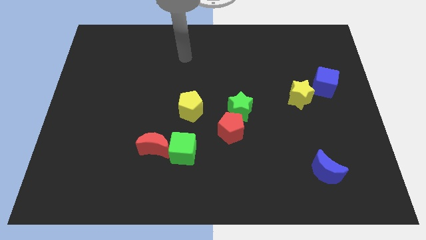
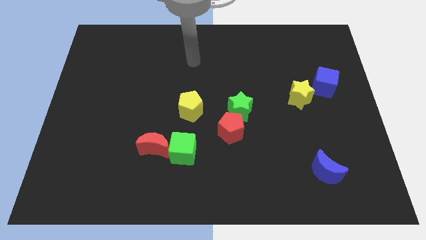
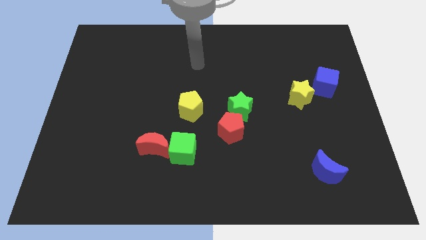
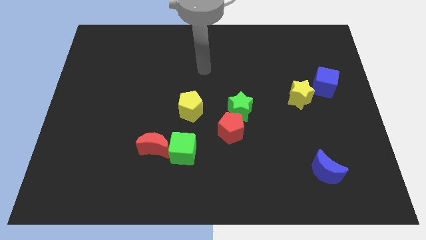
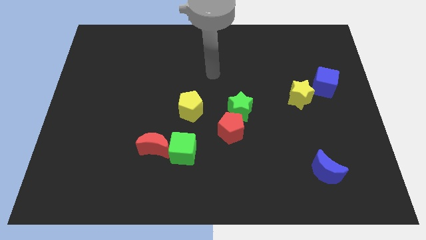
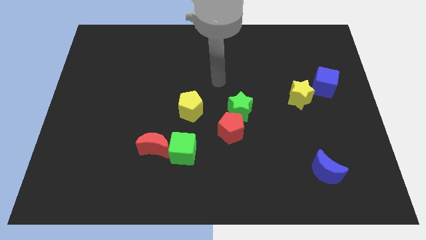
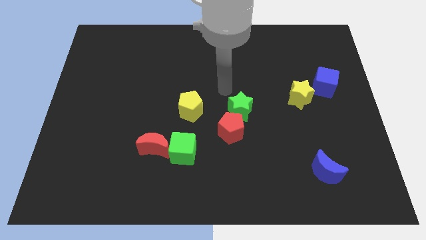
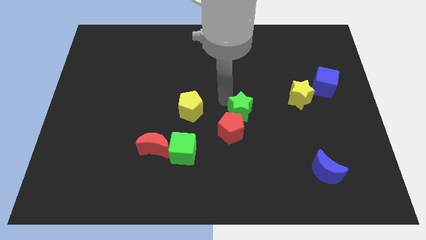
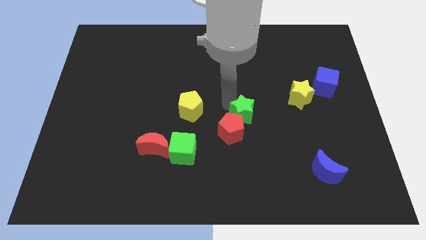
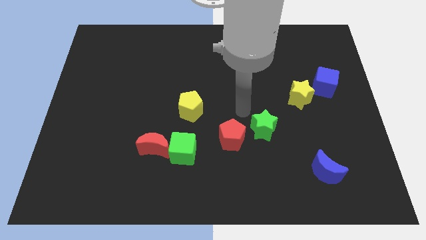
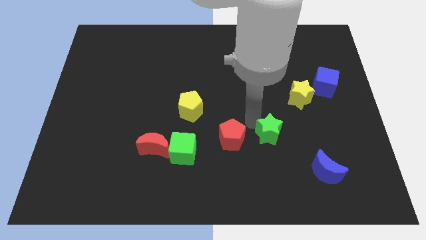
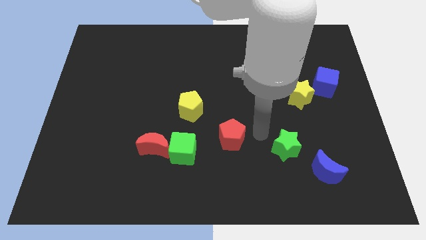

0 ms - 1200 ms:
pull the red pentagon apart from the green star

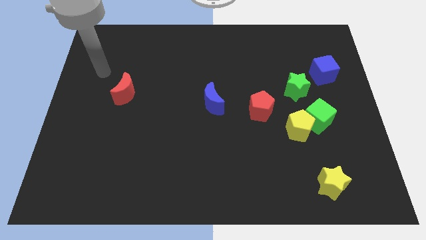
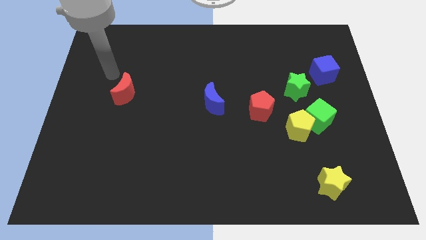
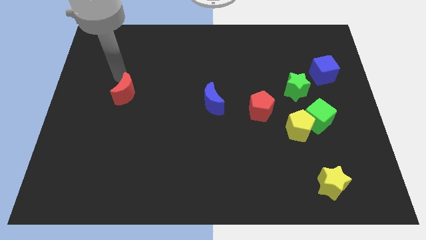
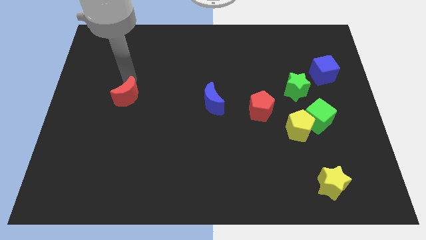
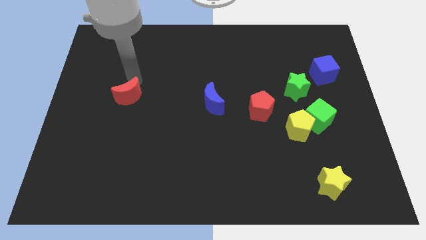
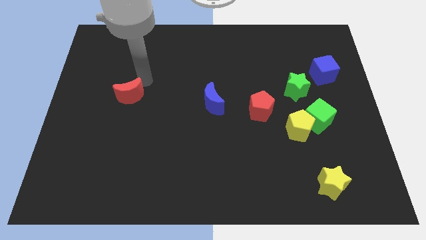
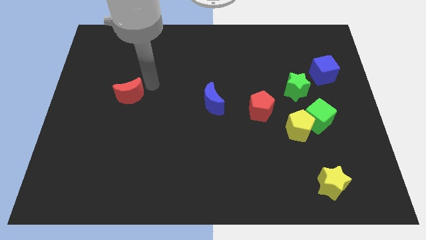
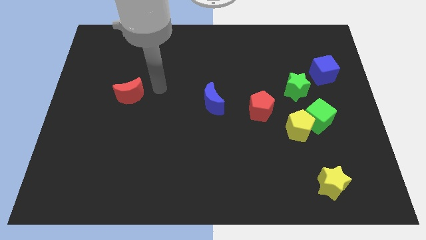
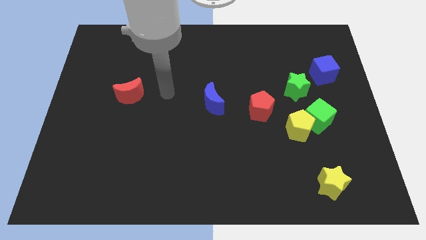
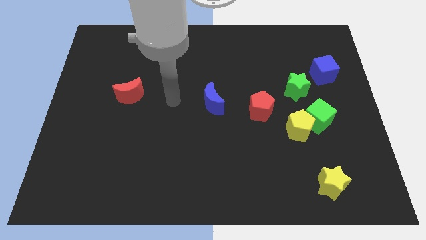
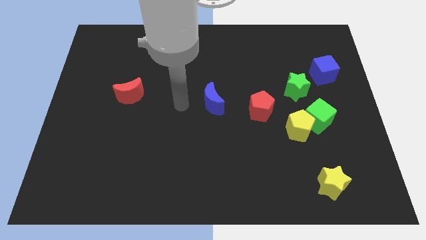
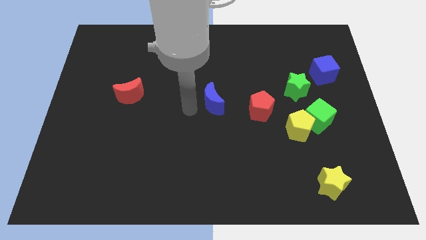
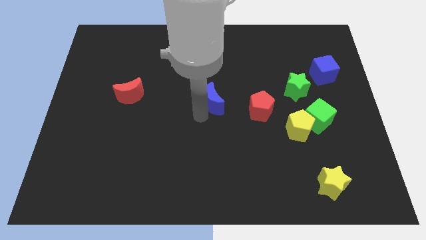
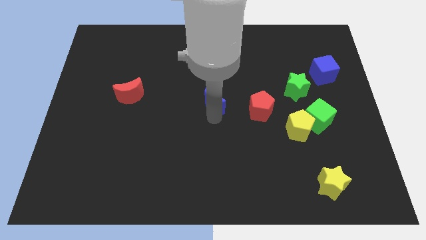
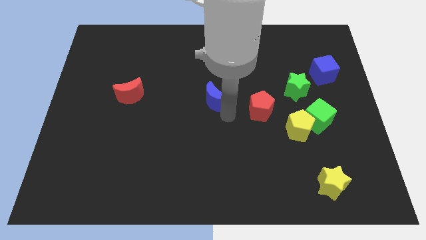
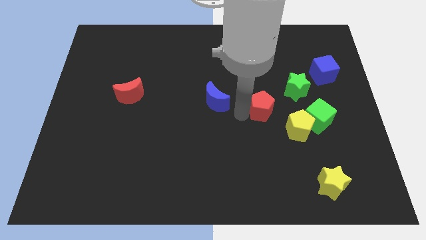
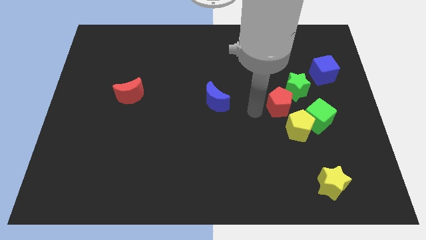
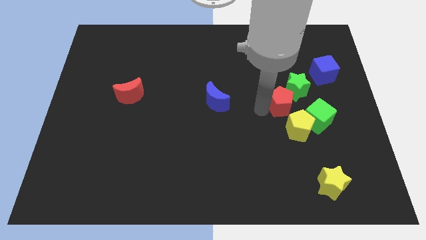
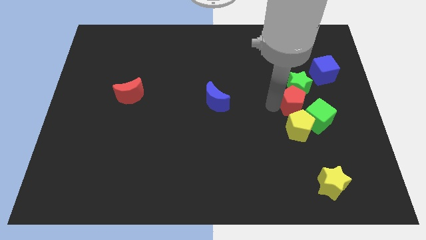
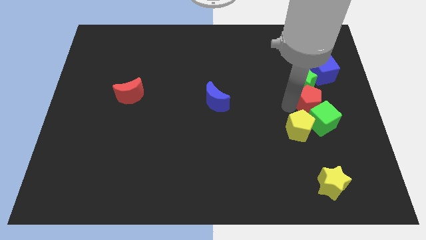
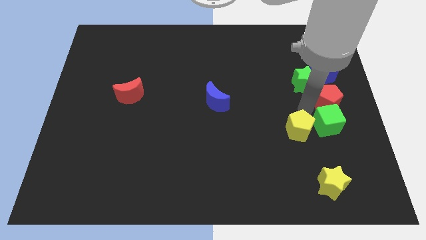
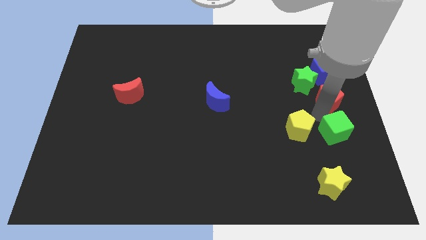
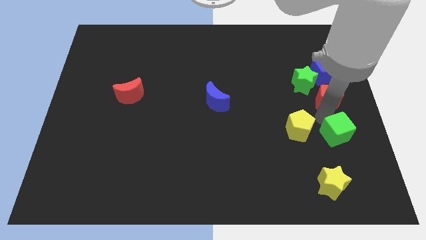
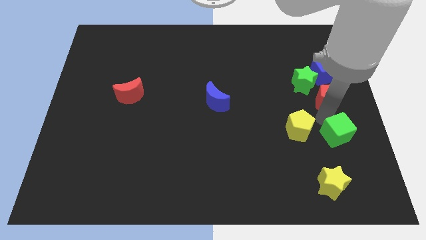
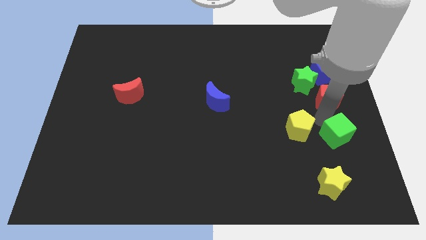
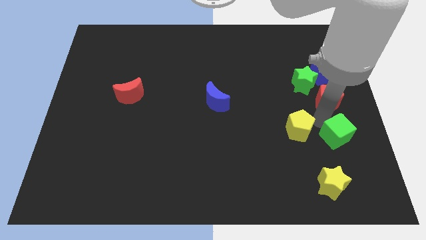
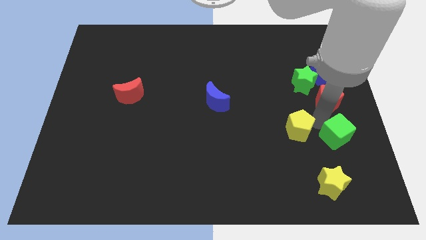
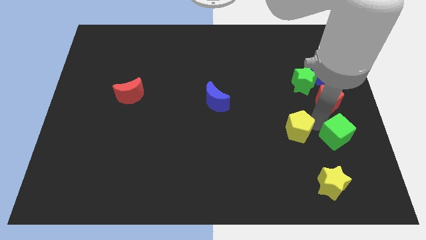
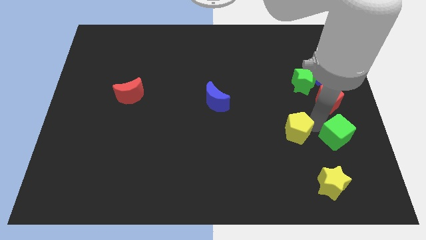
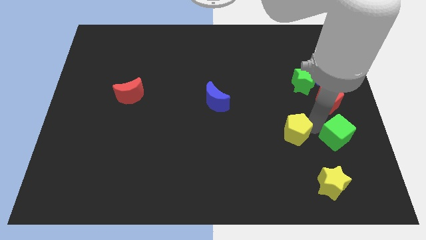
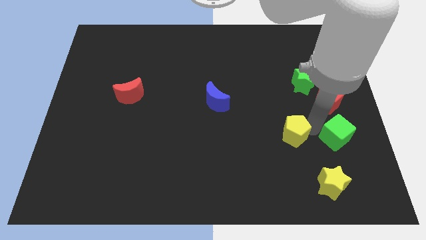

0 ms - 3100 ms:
separate the yellow pentagon from the green cube and red pentagon

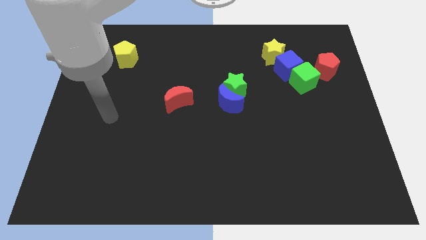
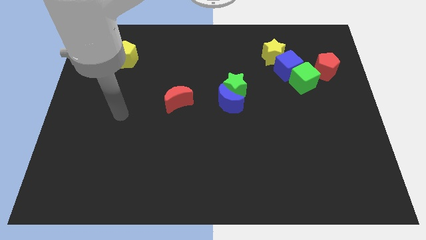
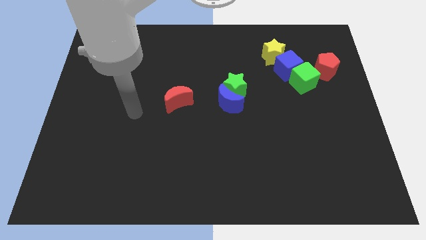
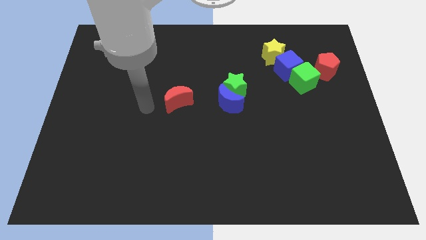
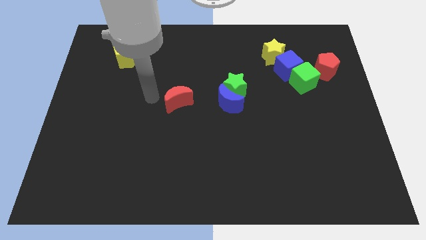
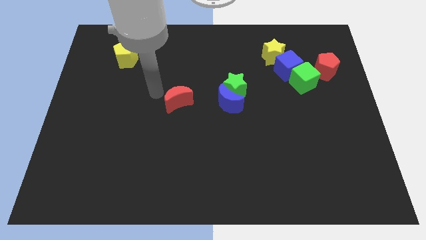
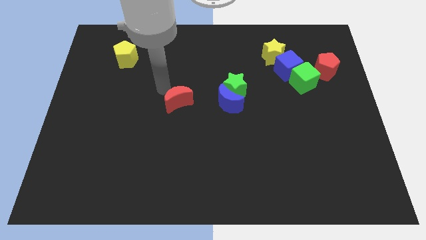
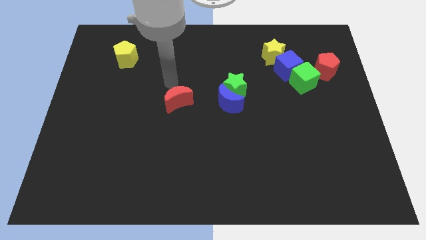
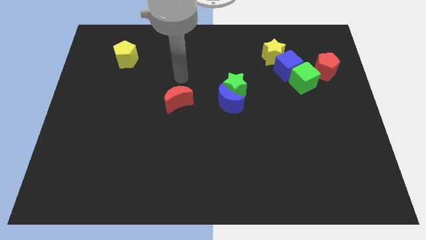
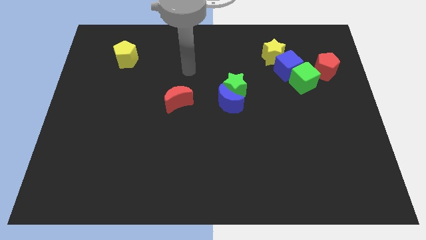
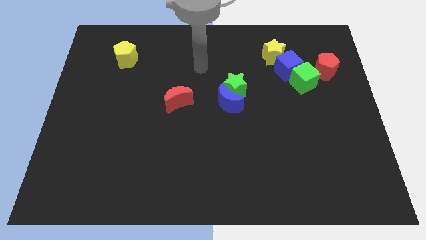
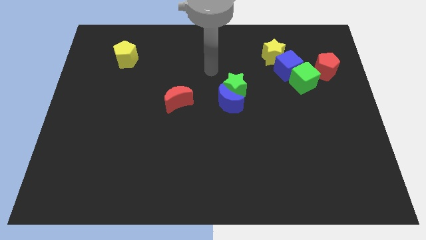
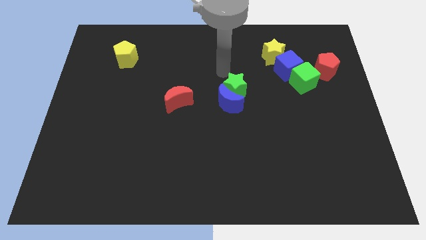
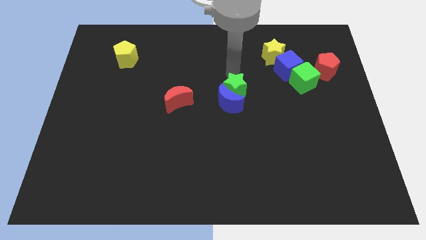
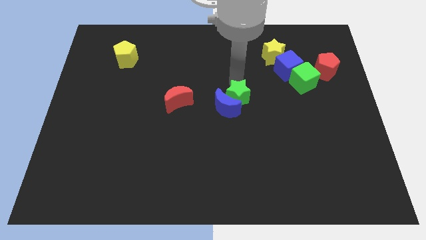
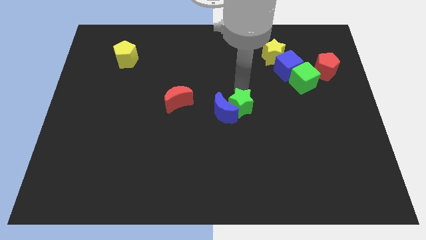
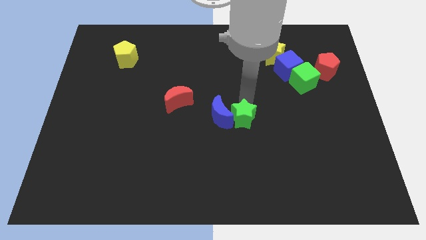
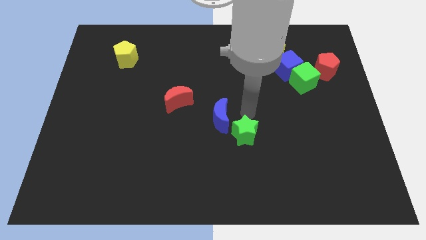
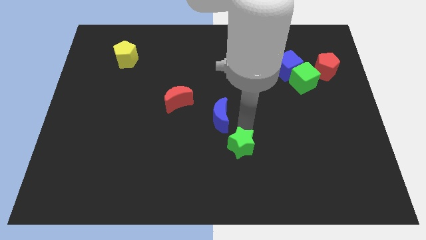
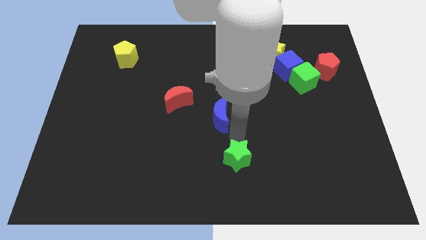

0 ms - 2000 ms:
pull the blue moon apart from the green star

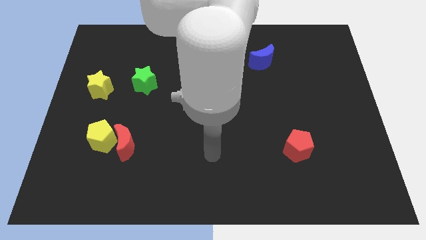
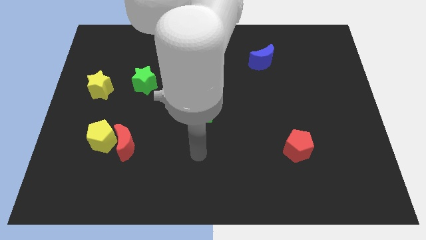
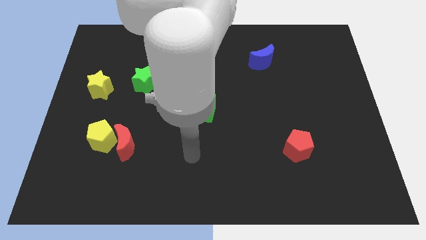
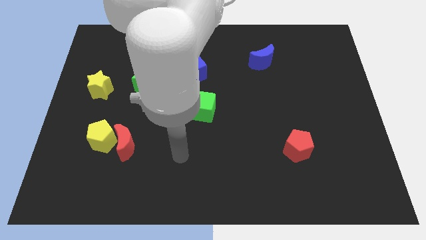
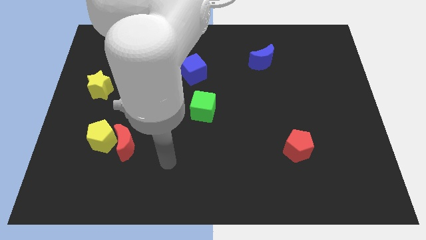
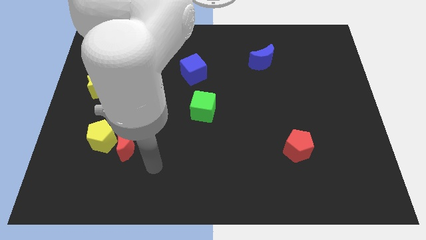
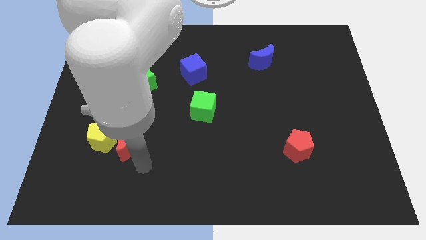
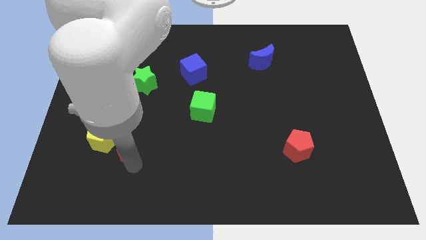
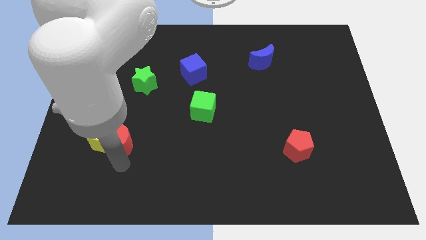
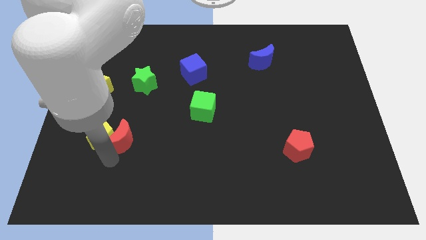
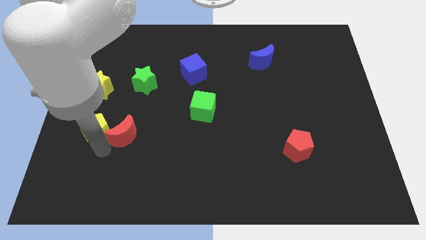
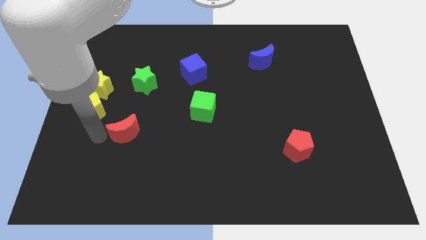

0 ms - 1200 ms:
pull the red moon apart from the yellow pentagon

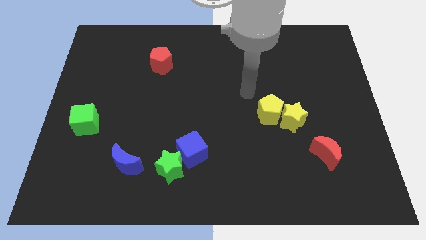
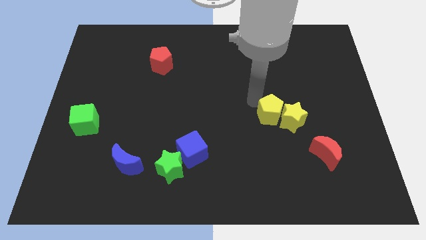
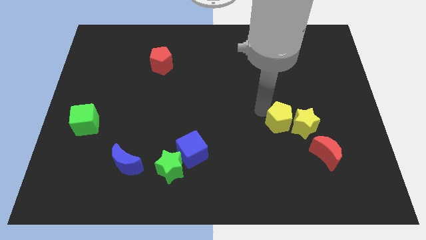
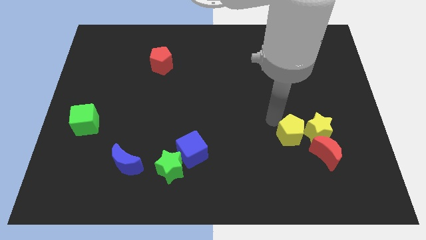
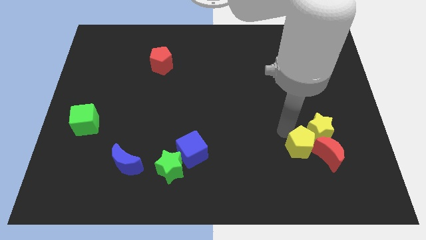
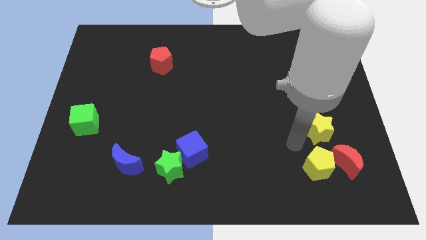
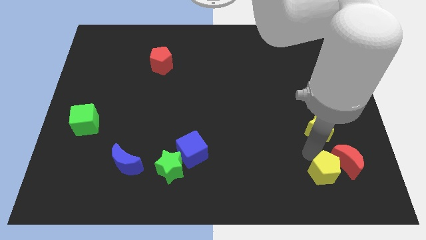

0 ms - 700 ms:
pull the yellow star apart from the yellow pentagon

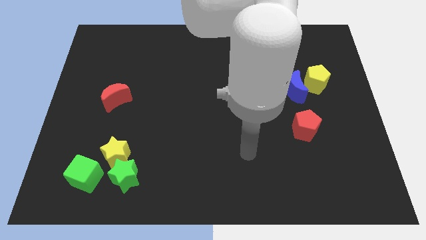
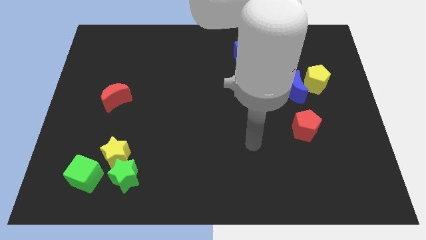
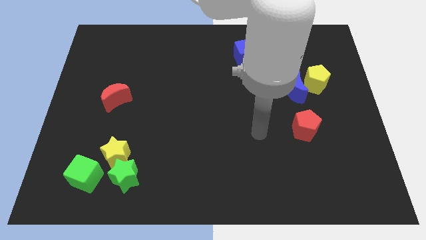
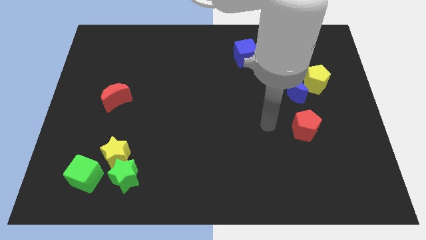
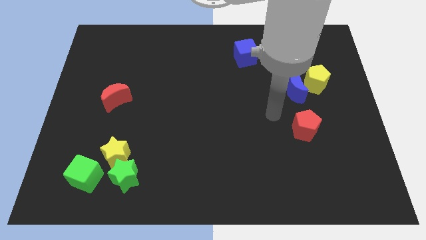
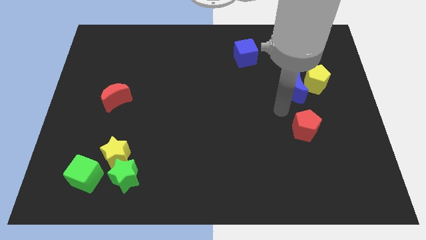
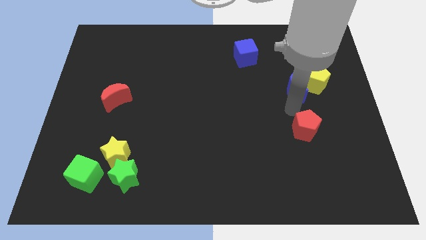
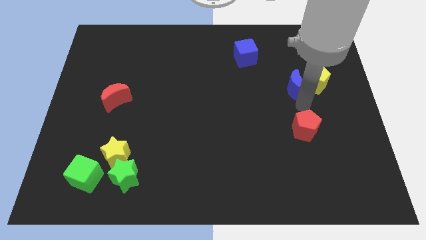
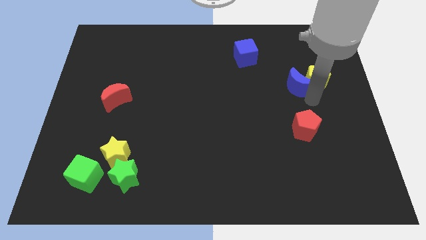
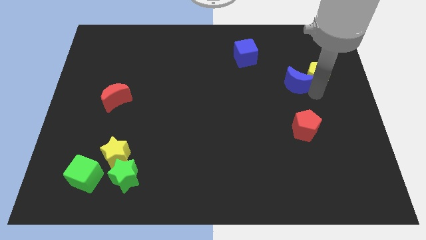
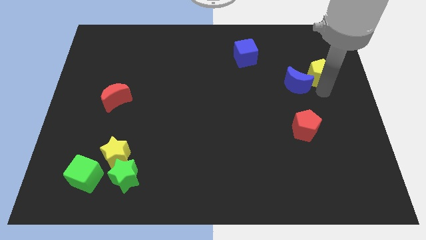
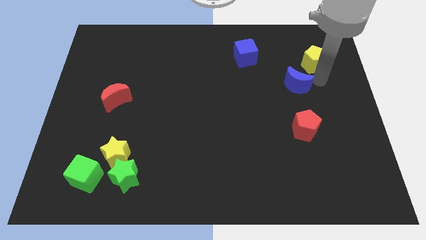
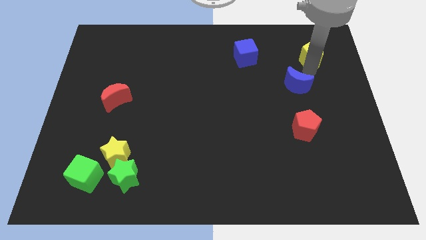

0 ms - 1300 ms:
separate the blue moon from the yellow pentagon
